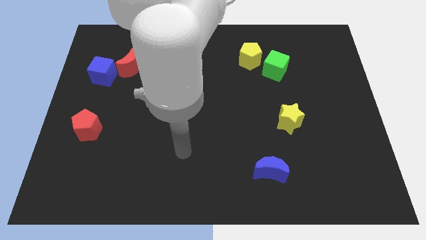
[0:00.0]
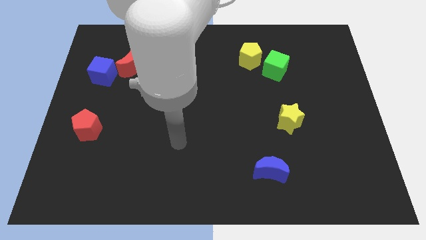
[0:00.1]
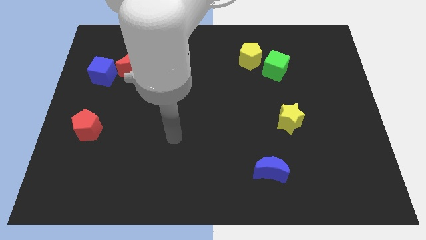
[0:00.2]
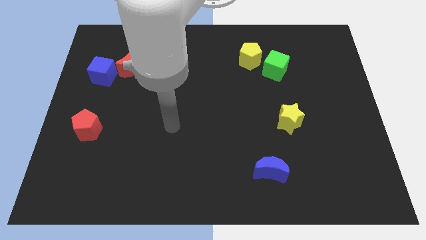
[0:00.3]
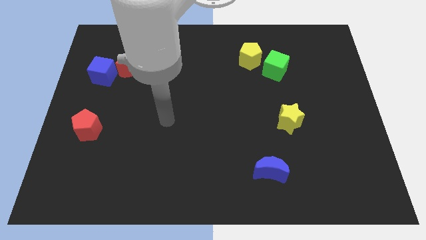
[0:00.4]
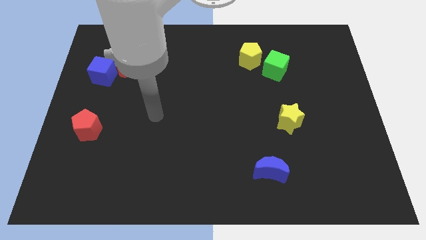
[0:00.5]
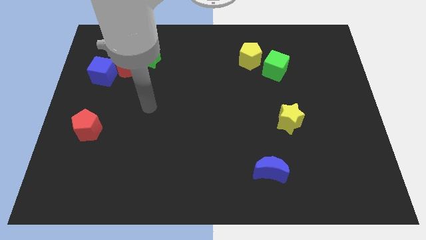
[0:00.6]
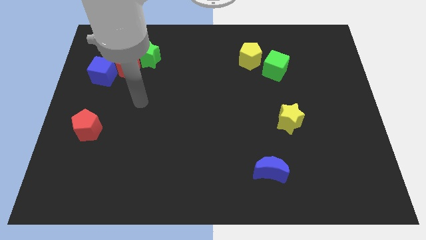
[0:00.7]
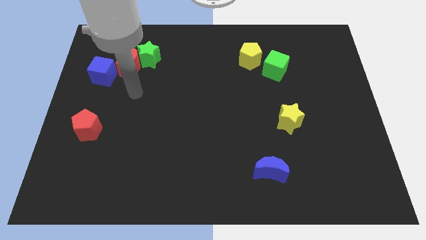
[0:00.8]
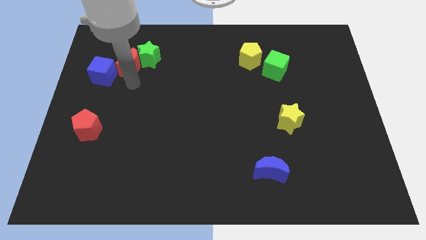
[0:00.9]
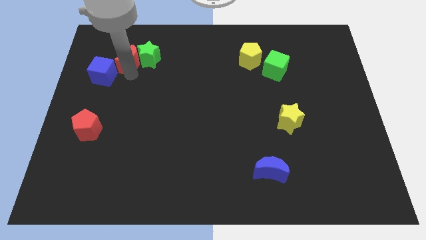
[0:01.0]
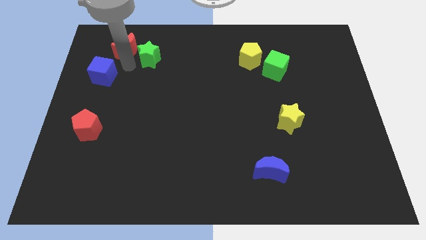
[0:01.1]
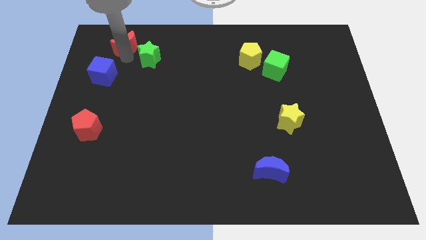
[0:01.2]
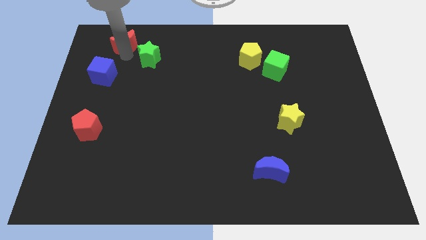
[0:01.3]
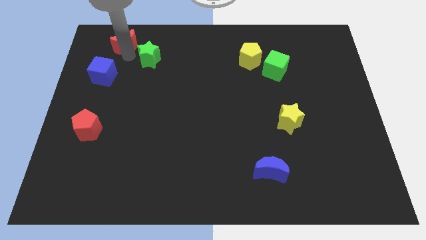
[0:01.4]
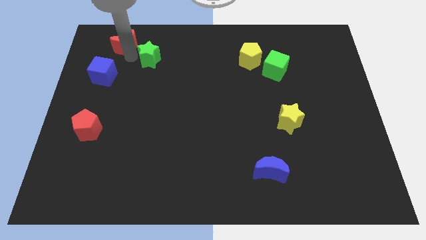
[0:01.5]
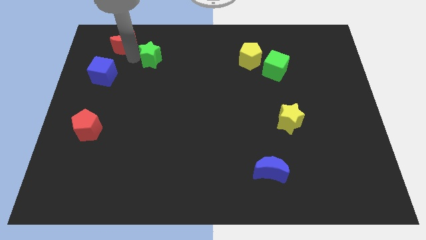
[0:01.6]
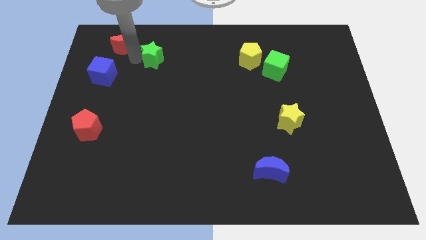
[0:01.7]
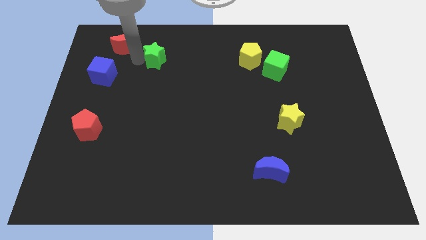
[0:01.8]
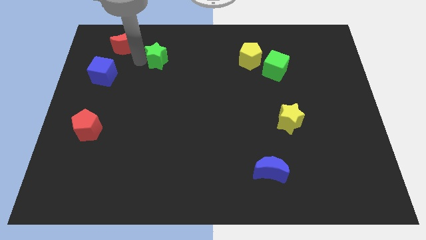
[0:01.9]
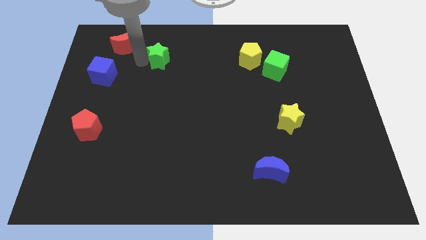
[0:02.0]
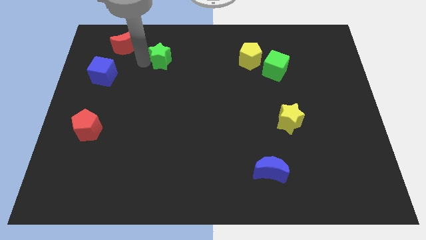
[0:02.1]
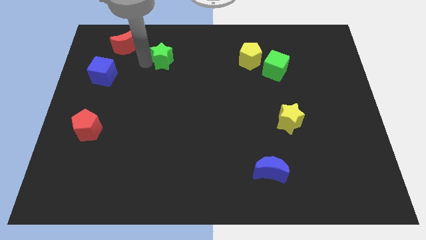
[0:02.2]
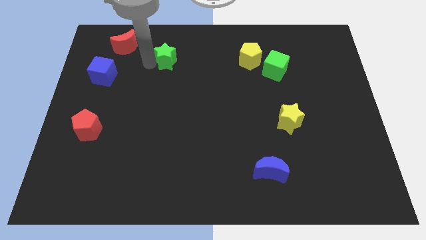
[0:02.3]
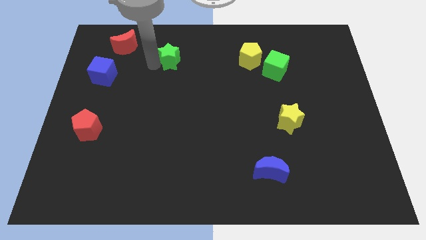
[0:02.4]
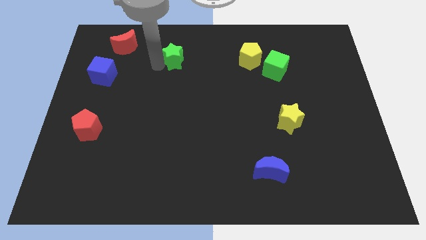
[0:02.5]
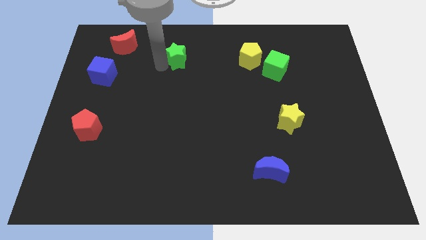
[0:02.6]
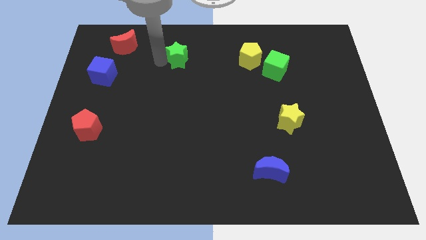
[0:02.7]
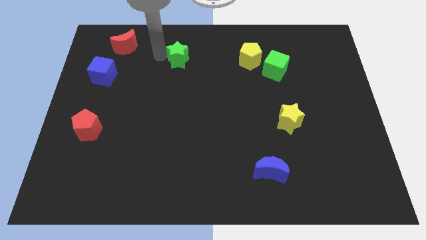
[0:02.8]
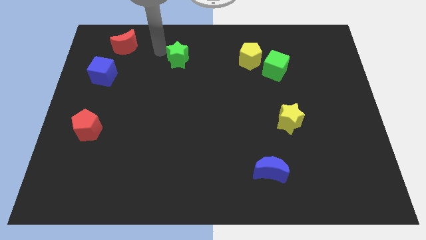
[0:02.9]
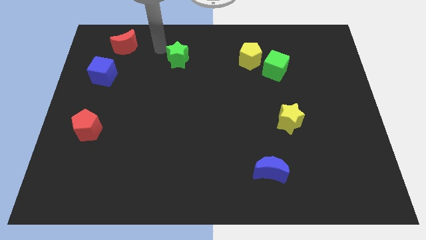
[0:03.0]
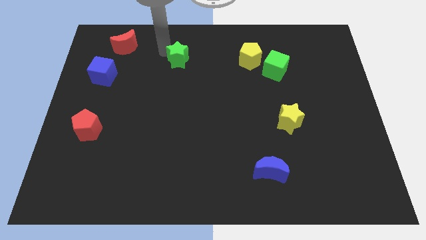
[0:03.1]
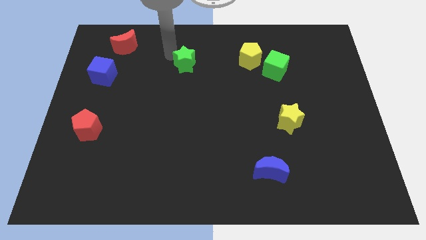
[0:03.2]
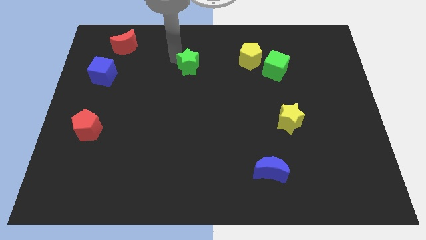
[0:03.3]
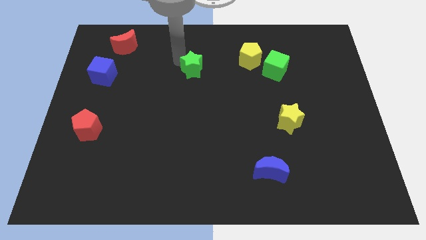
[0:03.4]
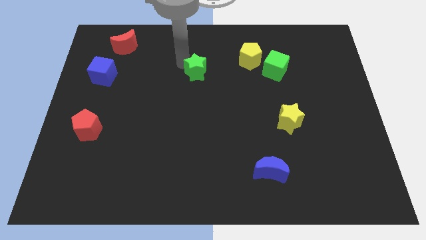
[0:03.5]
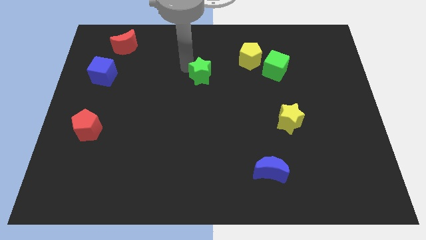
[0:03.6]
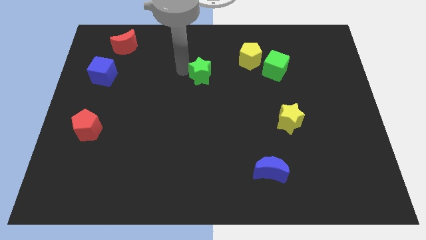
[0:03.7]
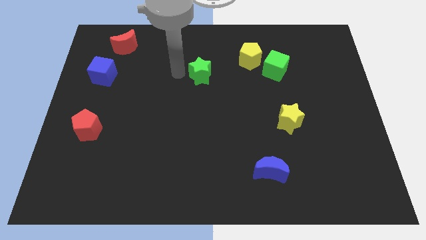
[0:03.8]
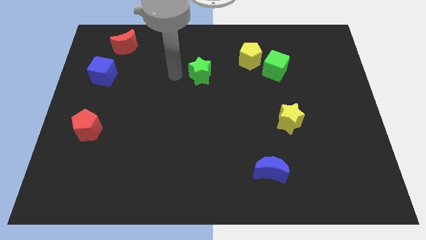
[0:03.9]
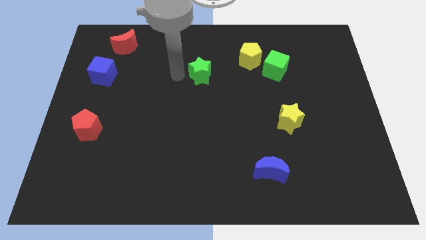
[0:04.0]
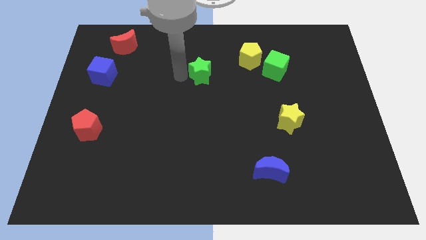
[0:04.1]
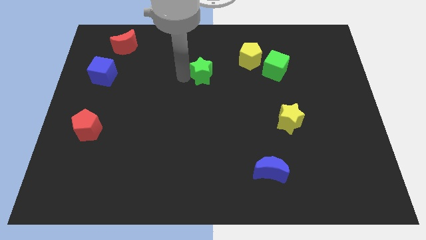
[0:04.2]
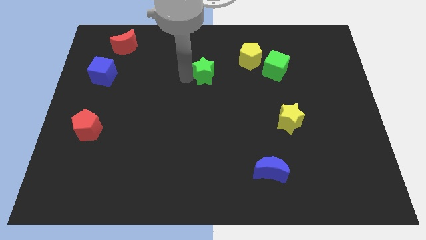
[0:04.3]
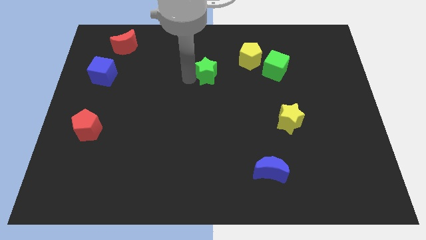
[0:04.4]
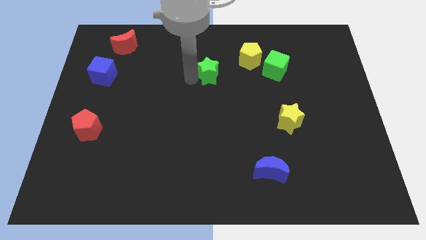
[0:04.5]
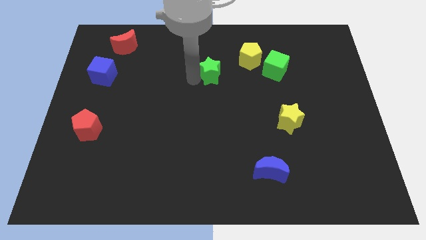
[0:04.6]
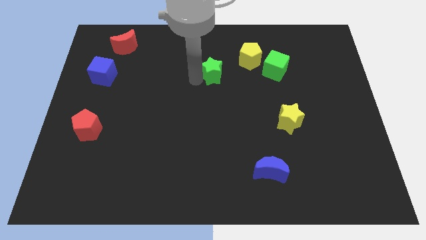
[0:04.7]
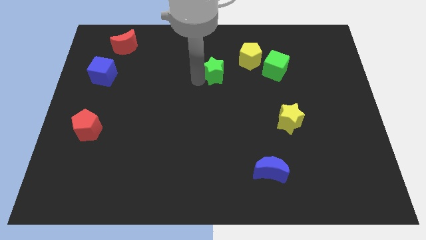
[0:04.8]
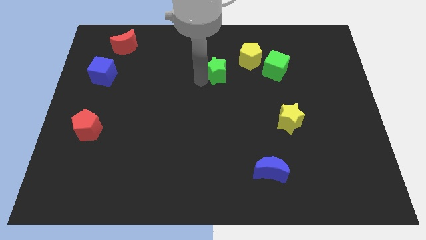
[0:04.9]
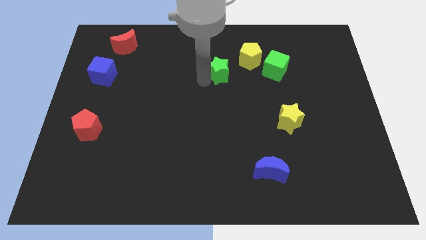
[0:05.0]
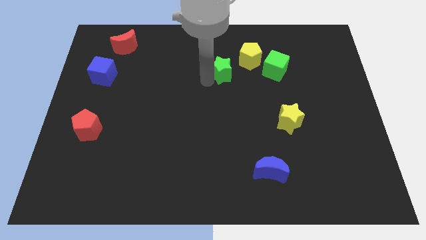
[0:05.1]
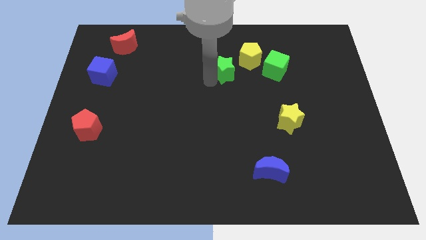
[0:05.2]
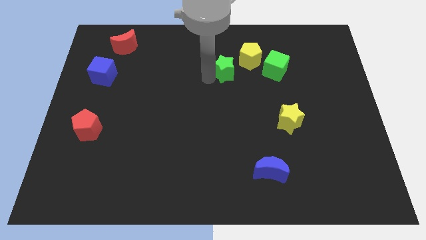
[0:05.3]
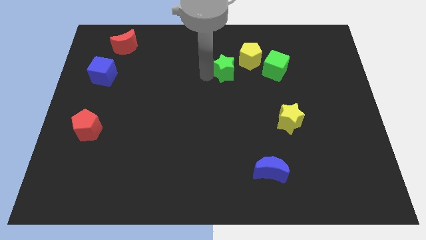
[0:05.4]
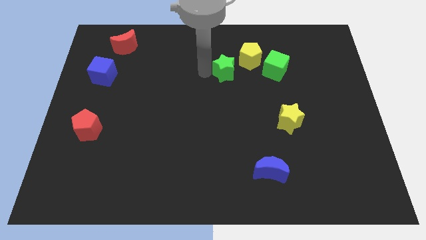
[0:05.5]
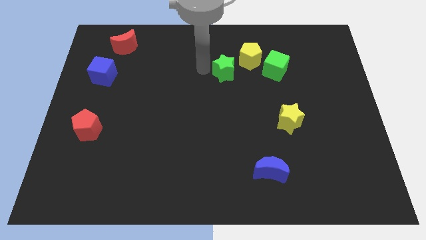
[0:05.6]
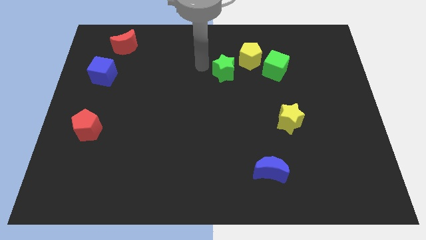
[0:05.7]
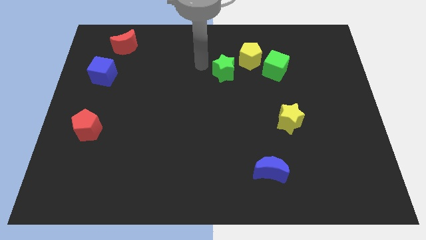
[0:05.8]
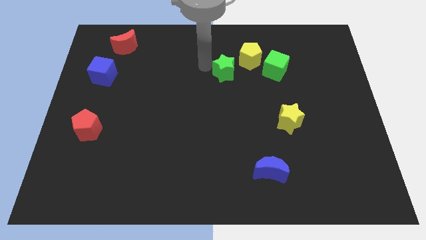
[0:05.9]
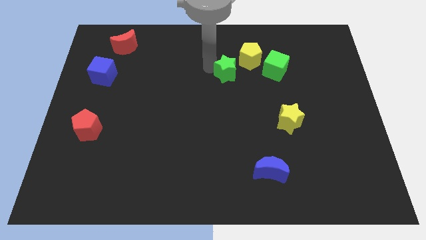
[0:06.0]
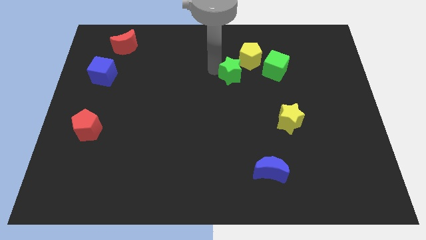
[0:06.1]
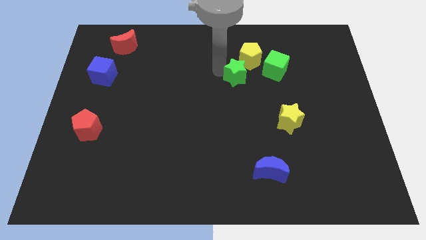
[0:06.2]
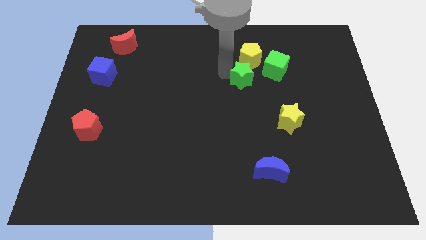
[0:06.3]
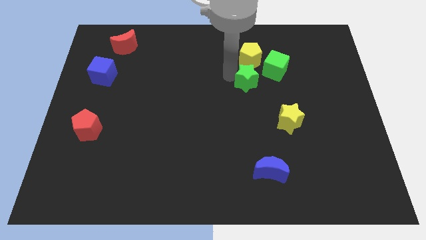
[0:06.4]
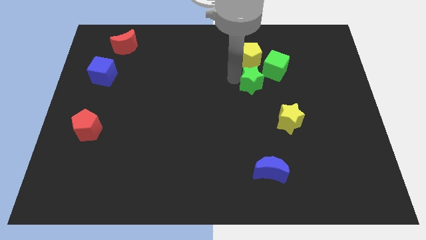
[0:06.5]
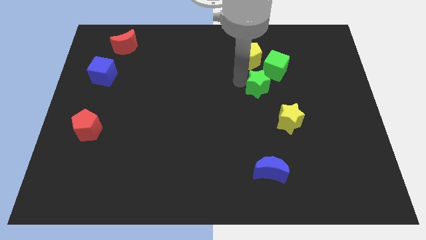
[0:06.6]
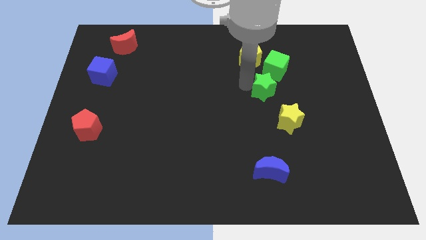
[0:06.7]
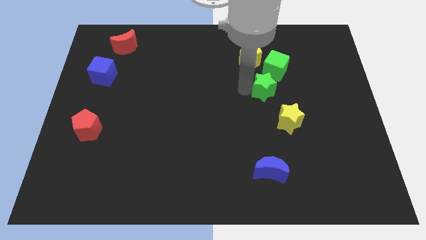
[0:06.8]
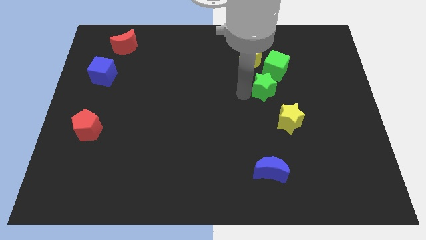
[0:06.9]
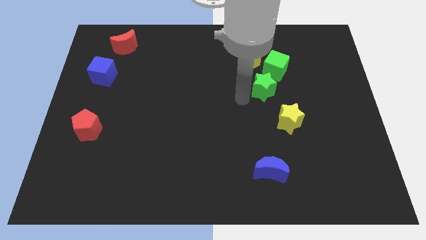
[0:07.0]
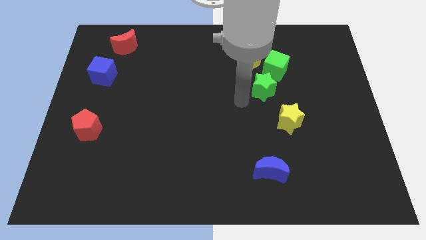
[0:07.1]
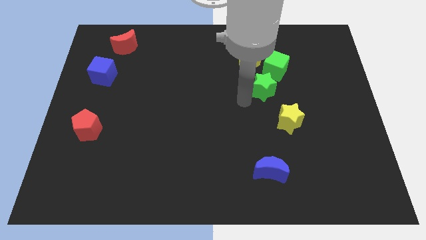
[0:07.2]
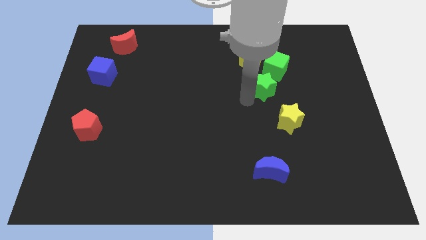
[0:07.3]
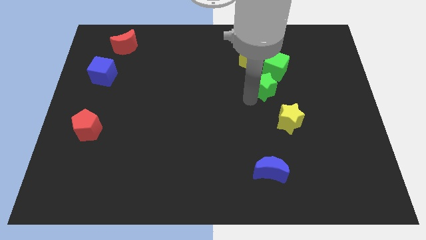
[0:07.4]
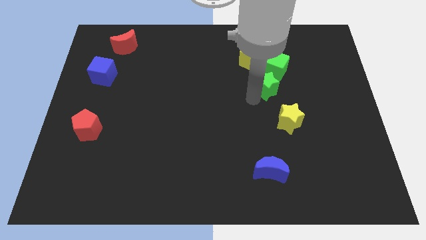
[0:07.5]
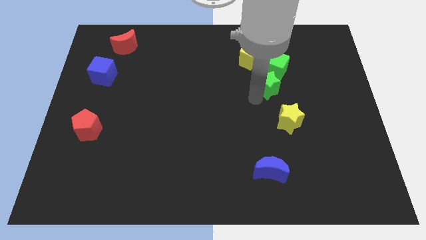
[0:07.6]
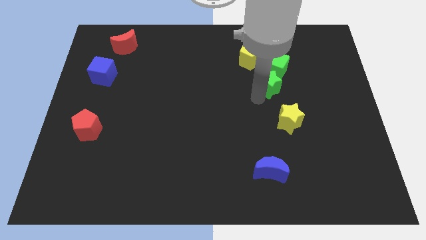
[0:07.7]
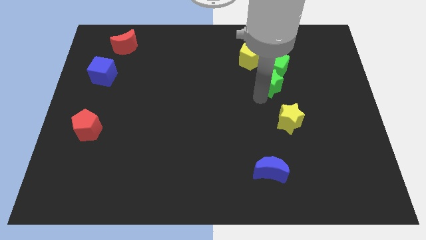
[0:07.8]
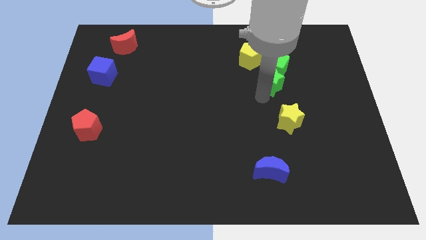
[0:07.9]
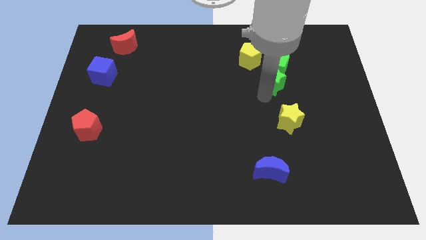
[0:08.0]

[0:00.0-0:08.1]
put the green star diagonally down and to the right of the green cube
